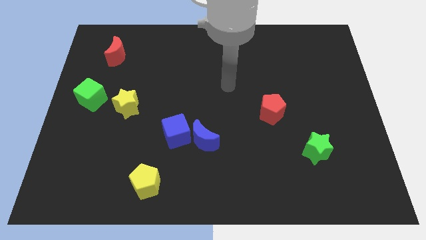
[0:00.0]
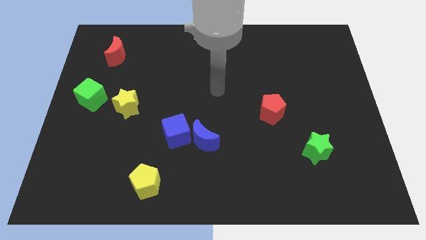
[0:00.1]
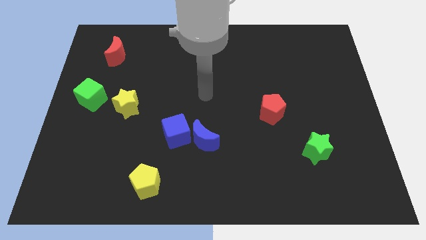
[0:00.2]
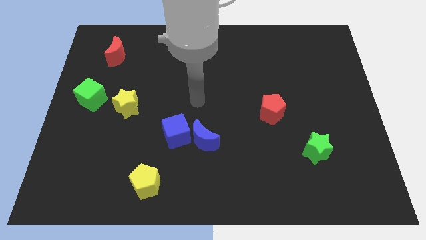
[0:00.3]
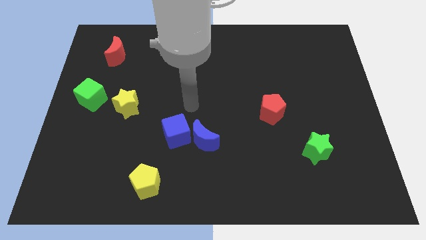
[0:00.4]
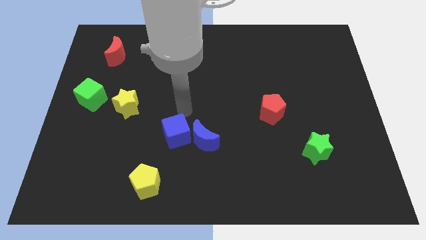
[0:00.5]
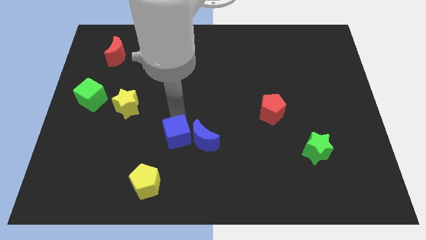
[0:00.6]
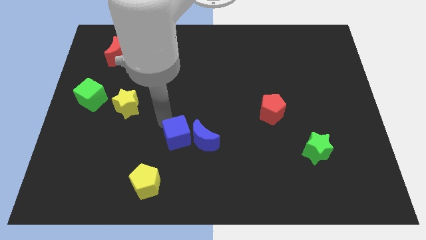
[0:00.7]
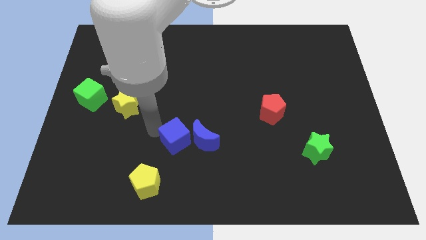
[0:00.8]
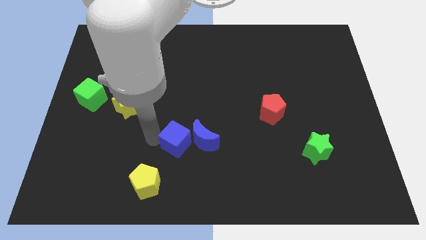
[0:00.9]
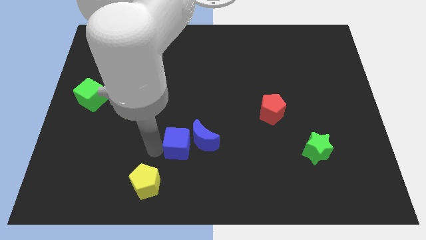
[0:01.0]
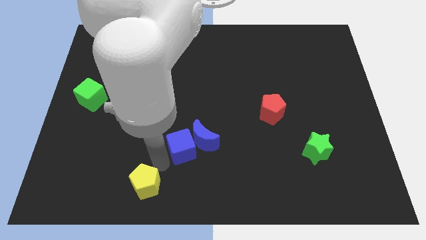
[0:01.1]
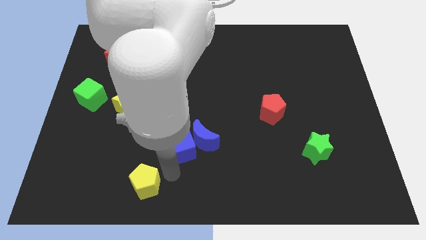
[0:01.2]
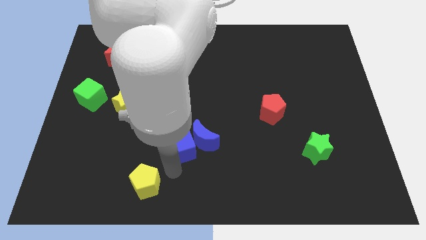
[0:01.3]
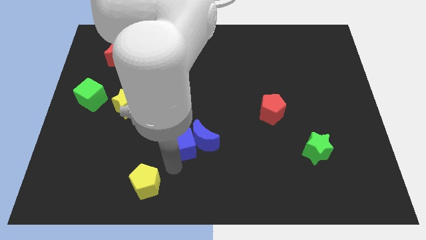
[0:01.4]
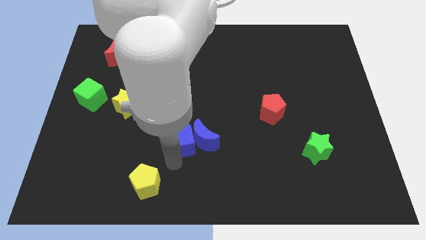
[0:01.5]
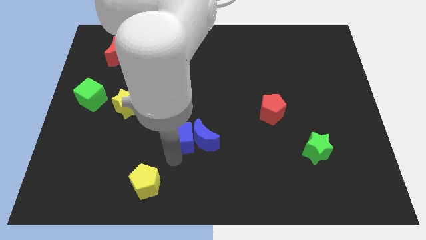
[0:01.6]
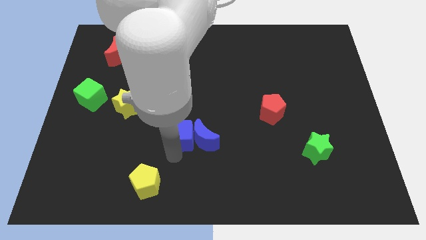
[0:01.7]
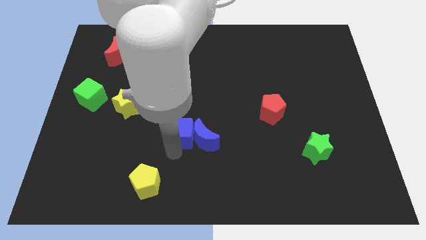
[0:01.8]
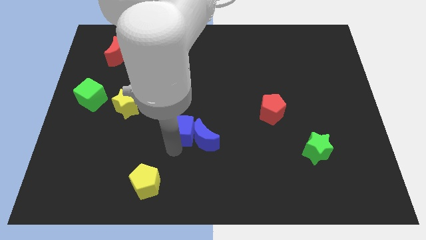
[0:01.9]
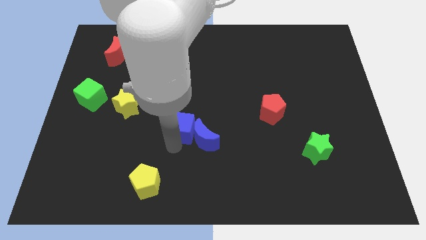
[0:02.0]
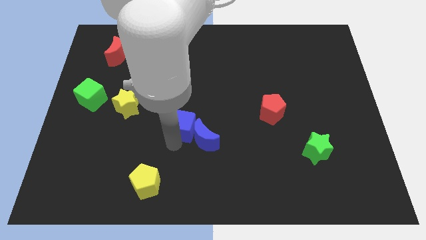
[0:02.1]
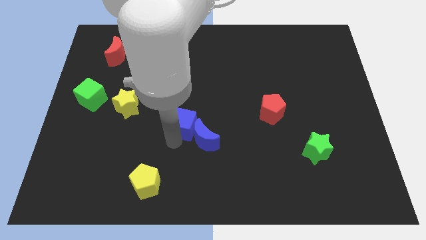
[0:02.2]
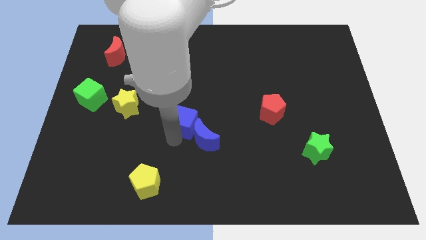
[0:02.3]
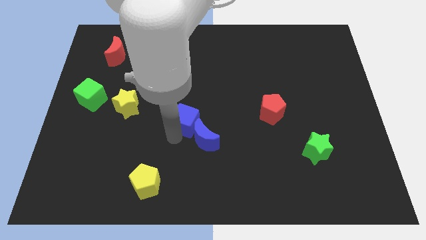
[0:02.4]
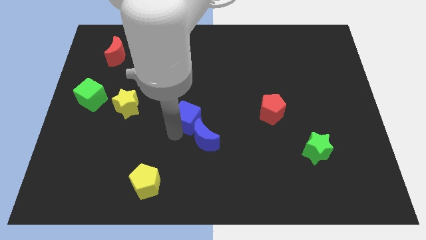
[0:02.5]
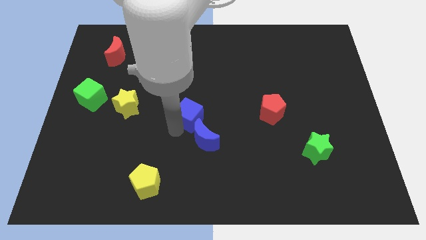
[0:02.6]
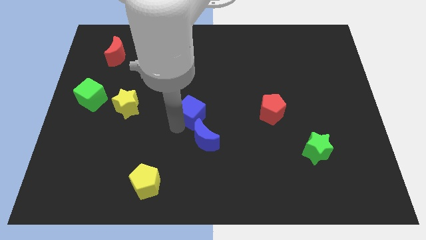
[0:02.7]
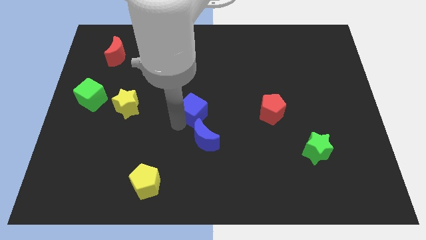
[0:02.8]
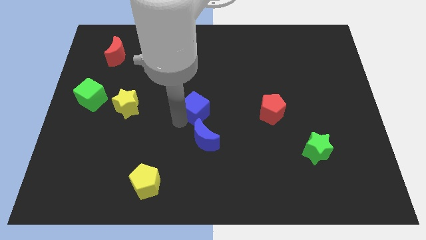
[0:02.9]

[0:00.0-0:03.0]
slide the blue cube upwards and then to the right a little bit

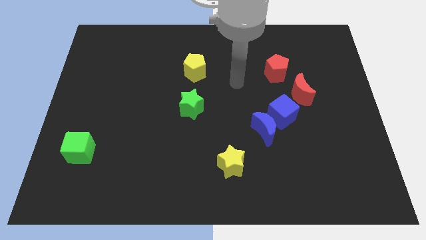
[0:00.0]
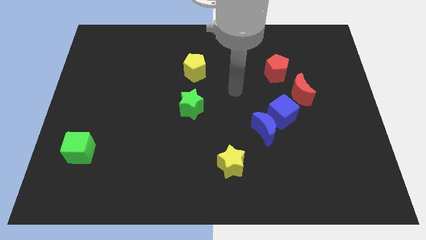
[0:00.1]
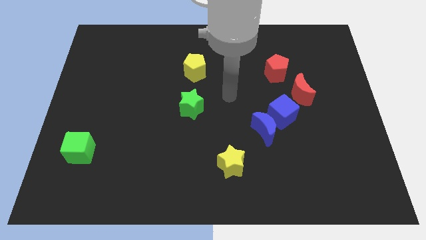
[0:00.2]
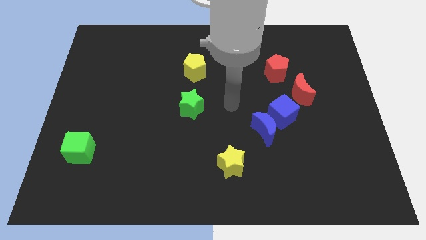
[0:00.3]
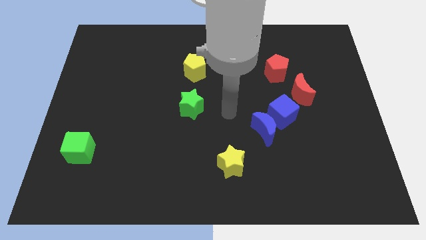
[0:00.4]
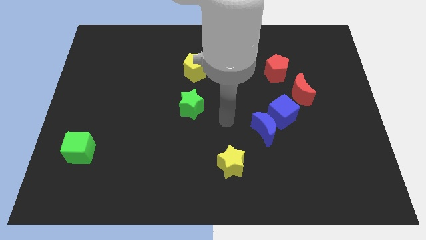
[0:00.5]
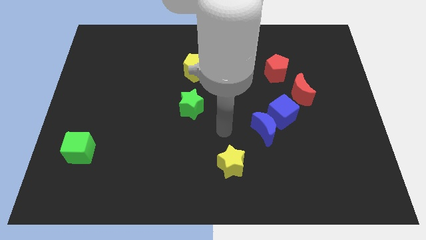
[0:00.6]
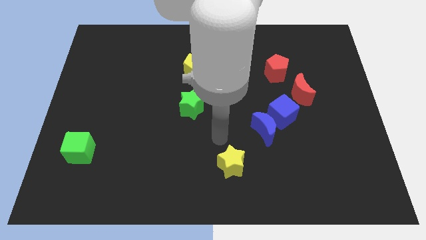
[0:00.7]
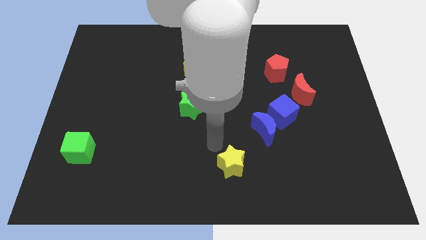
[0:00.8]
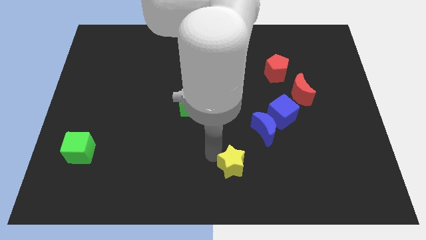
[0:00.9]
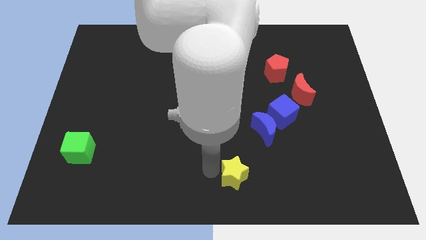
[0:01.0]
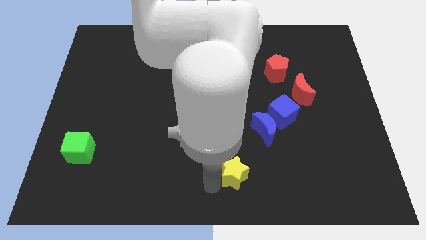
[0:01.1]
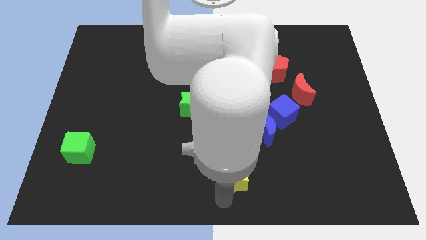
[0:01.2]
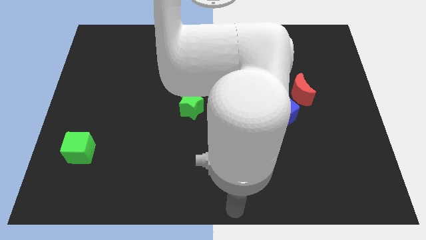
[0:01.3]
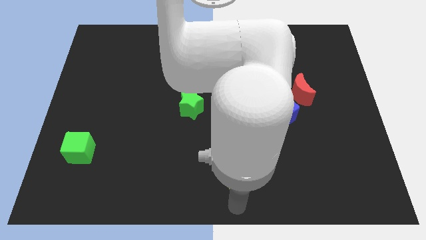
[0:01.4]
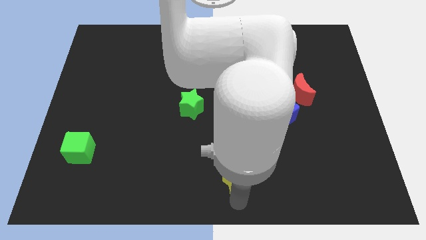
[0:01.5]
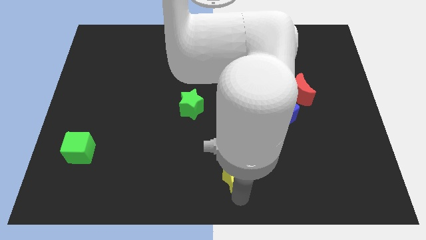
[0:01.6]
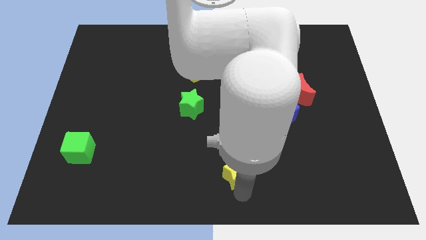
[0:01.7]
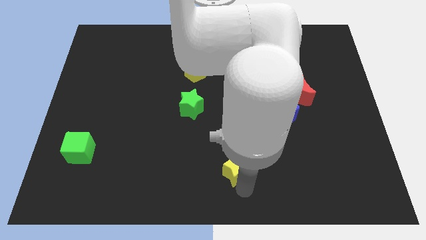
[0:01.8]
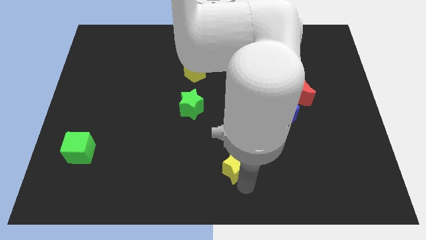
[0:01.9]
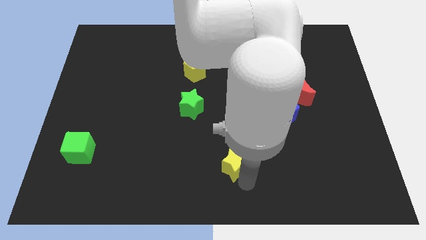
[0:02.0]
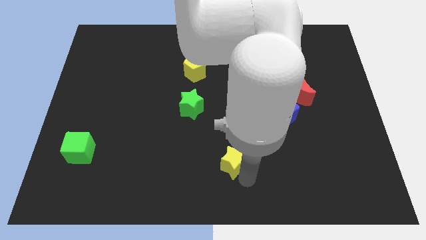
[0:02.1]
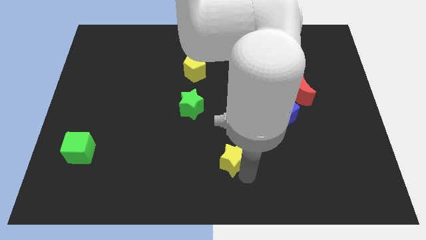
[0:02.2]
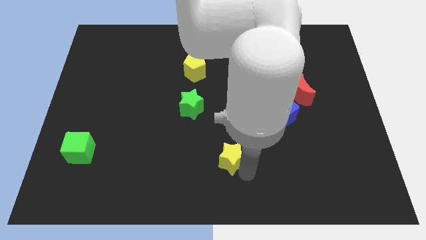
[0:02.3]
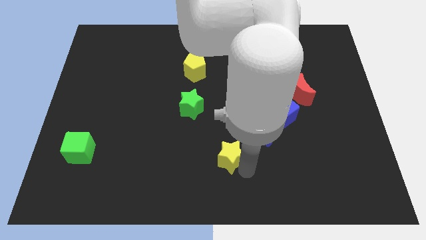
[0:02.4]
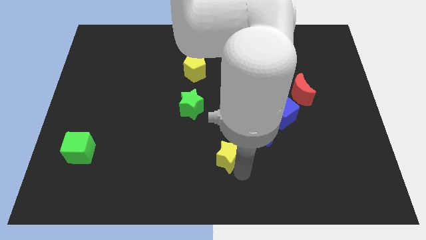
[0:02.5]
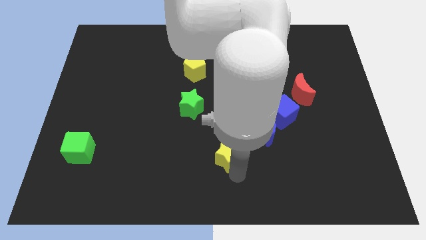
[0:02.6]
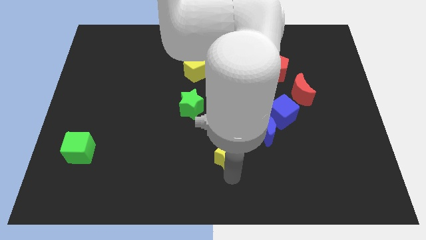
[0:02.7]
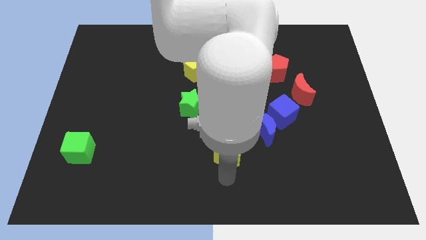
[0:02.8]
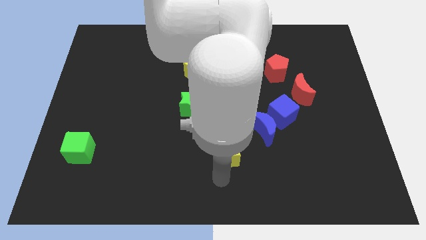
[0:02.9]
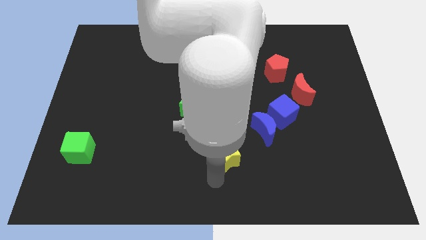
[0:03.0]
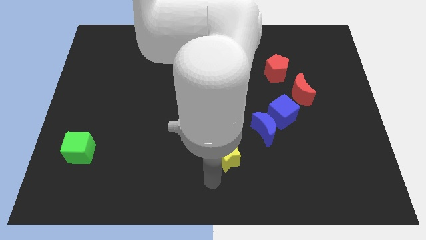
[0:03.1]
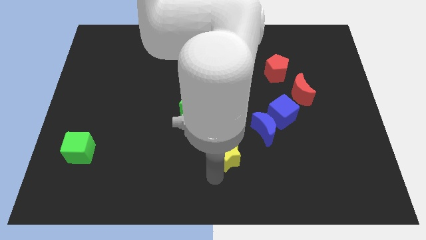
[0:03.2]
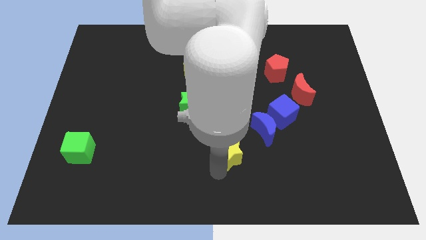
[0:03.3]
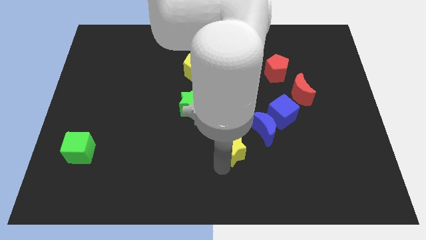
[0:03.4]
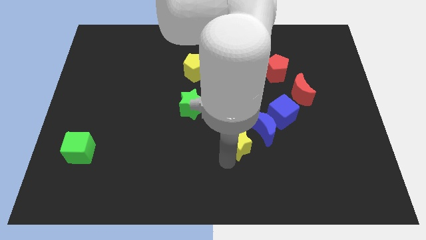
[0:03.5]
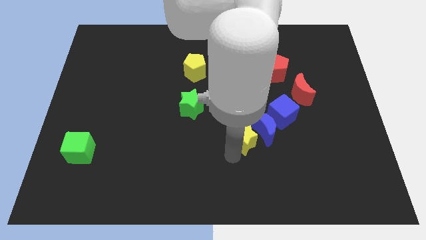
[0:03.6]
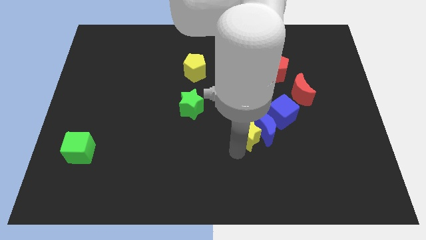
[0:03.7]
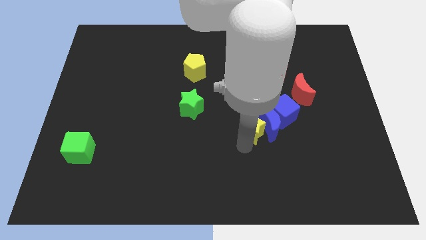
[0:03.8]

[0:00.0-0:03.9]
push the yellow star a little upwards

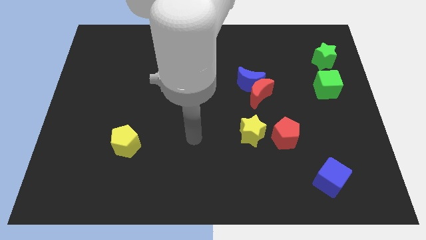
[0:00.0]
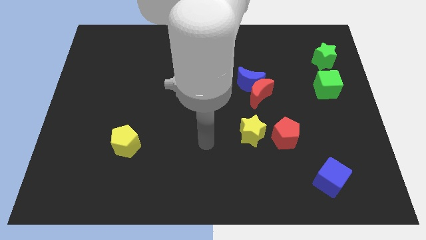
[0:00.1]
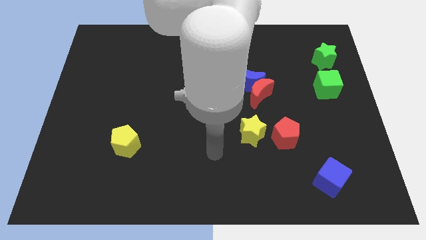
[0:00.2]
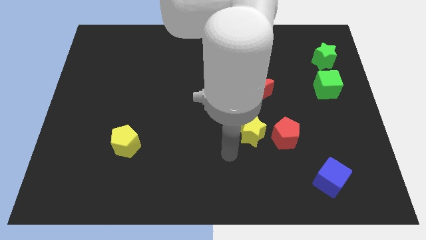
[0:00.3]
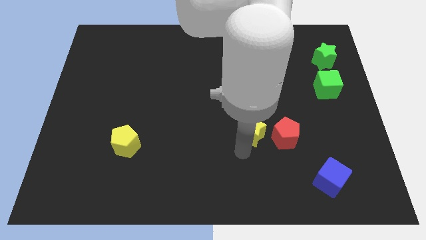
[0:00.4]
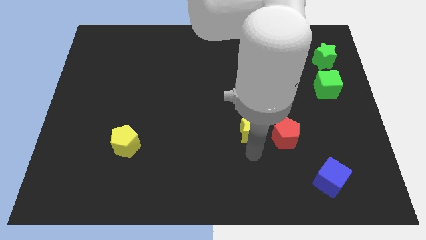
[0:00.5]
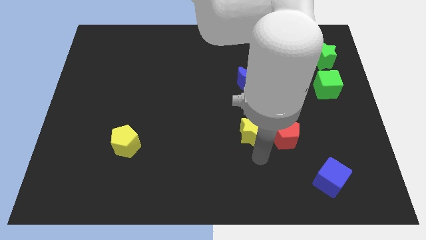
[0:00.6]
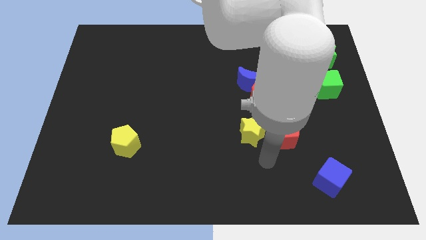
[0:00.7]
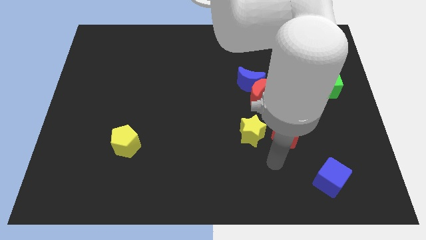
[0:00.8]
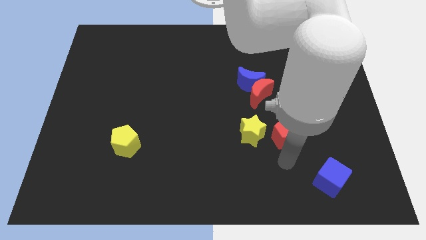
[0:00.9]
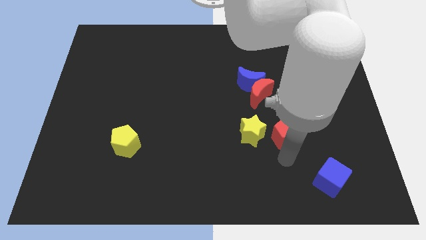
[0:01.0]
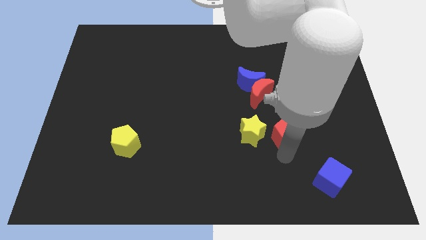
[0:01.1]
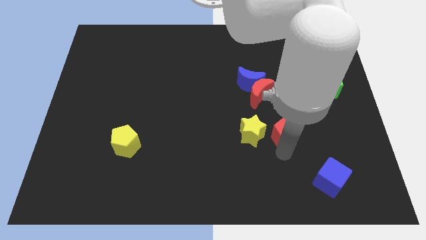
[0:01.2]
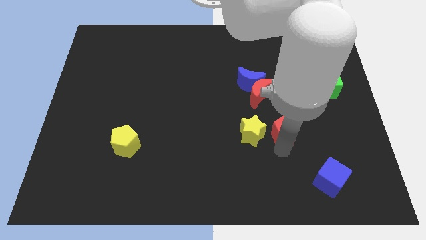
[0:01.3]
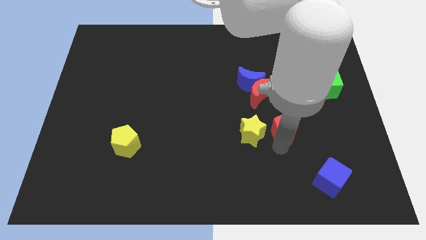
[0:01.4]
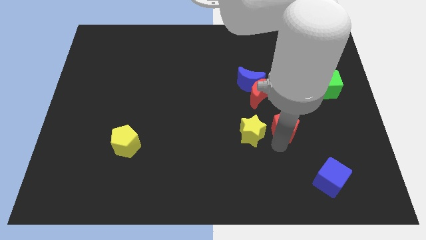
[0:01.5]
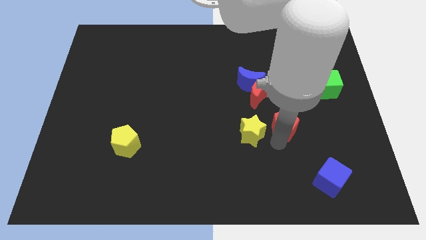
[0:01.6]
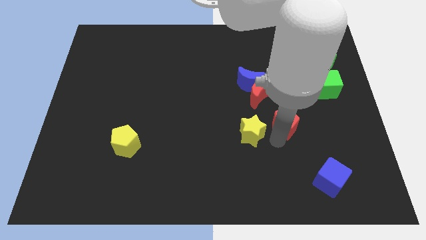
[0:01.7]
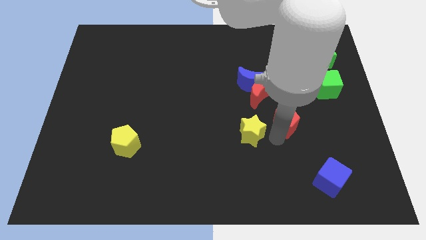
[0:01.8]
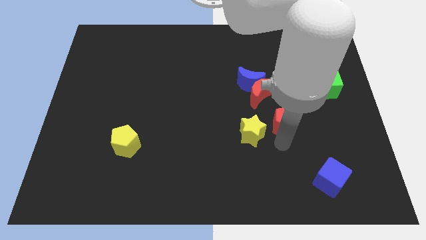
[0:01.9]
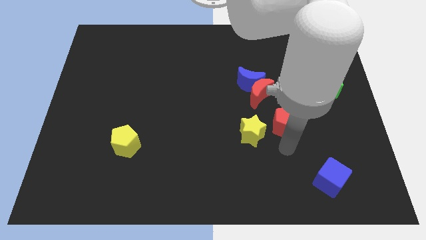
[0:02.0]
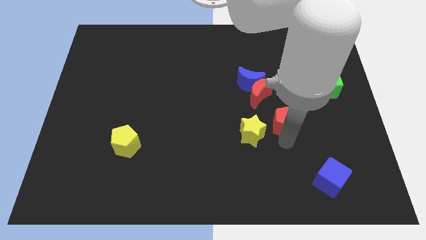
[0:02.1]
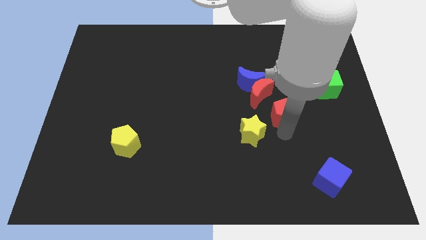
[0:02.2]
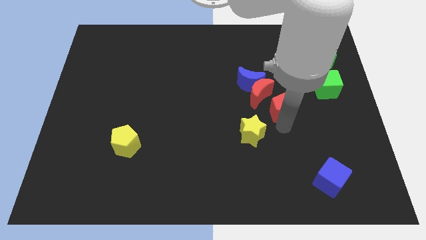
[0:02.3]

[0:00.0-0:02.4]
slightly push the red pentagon up
